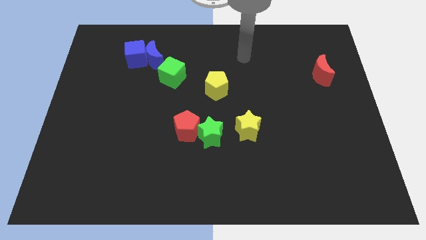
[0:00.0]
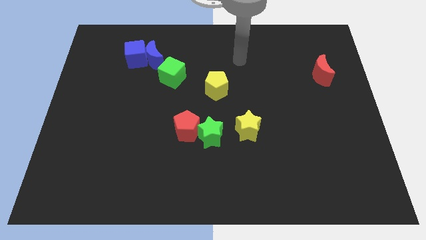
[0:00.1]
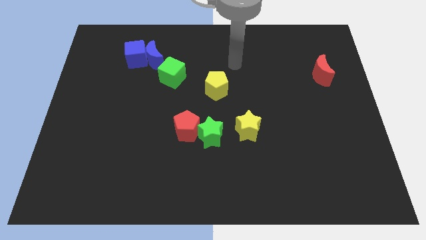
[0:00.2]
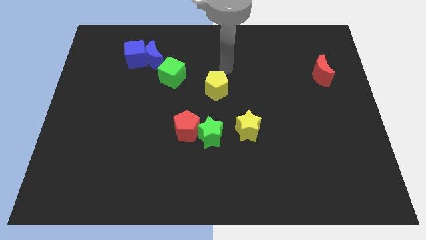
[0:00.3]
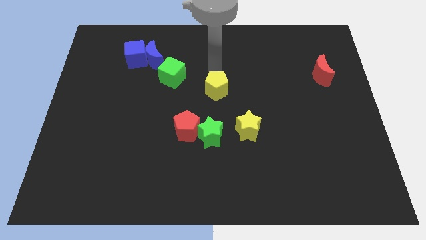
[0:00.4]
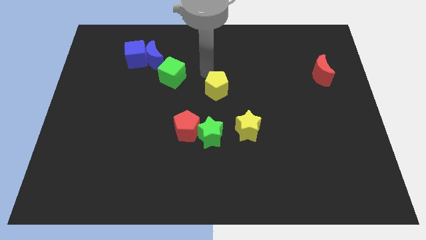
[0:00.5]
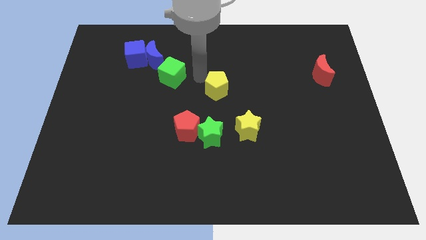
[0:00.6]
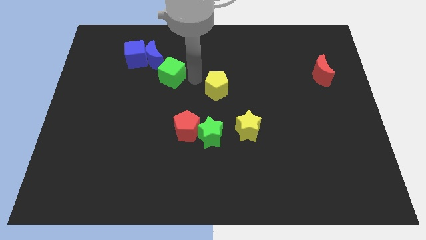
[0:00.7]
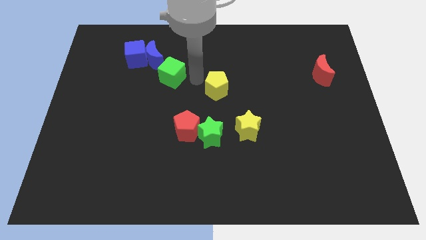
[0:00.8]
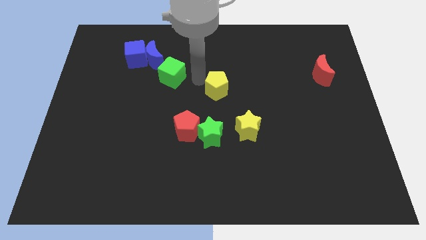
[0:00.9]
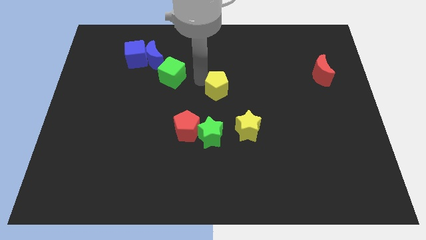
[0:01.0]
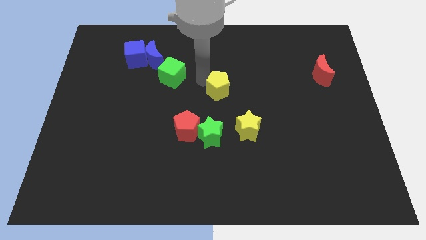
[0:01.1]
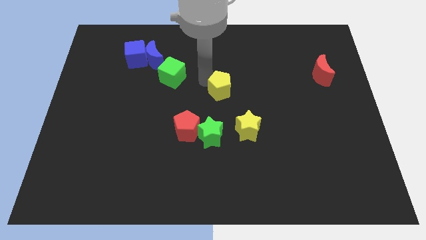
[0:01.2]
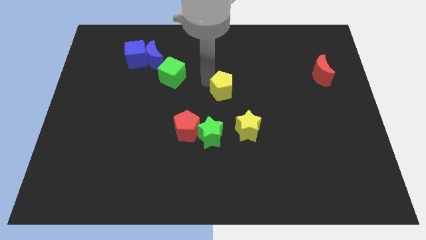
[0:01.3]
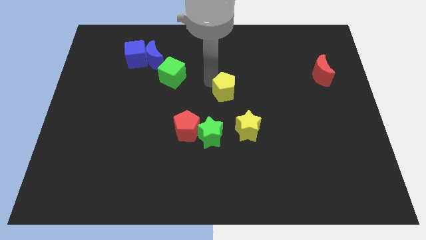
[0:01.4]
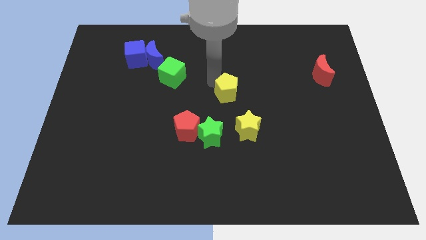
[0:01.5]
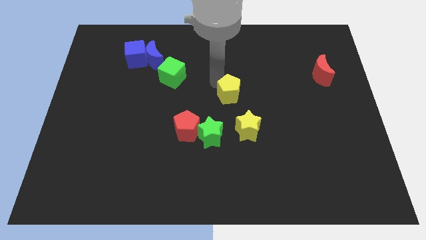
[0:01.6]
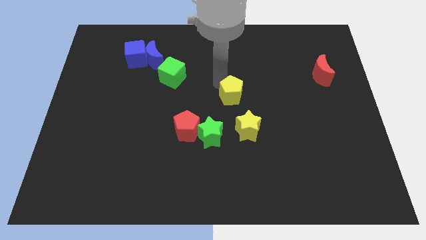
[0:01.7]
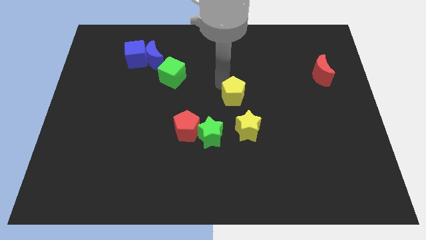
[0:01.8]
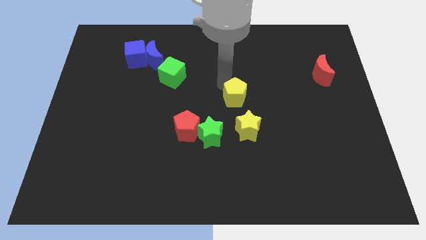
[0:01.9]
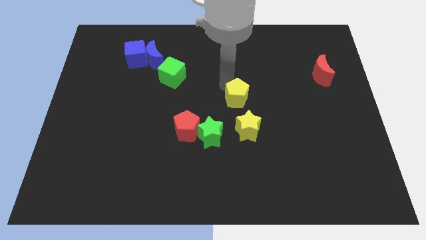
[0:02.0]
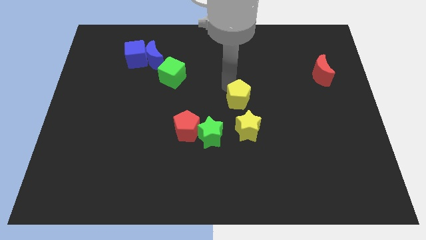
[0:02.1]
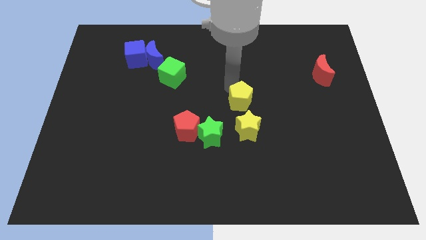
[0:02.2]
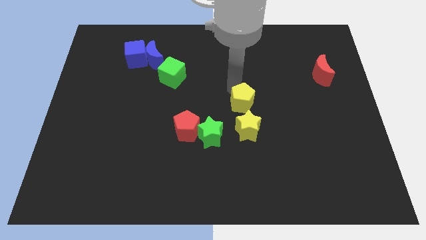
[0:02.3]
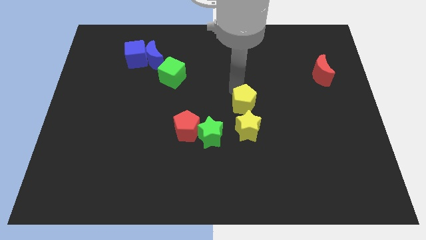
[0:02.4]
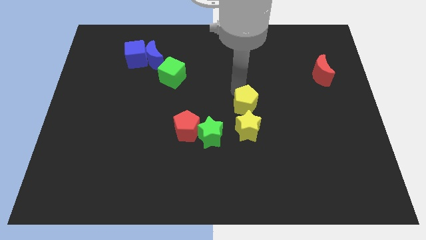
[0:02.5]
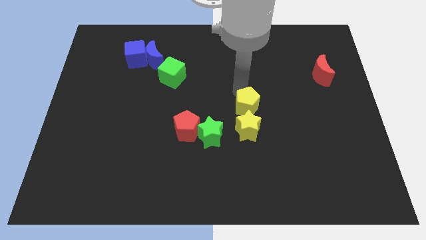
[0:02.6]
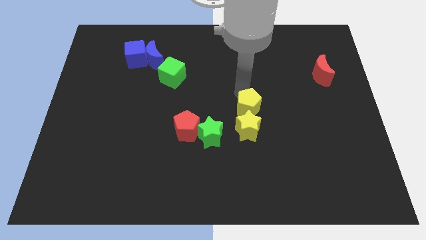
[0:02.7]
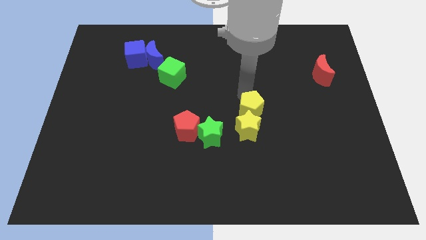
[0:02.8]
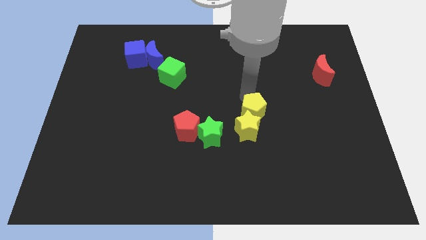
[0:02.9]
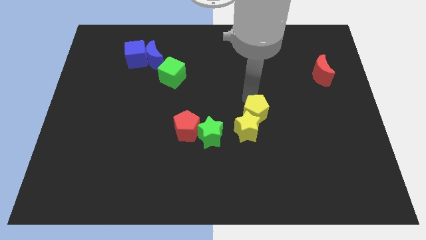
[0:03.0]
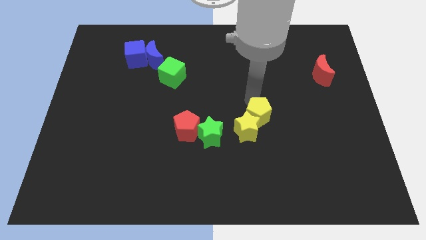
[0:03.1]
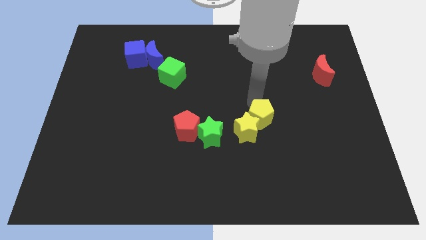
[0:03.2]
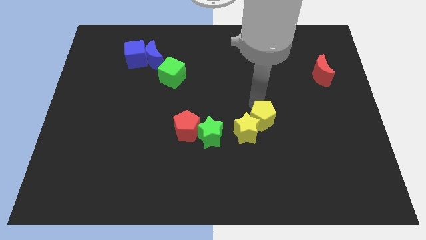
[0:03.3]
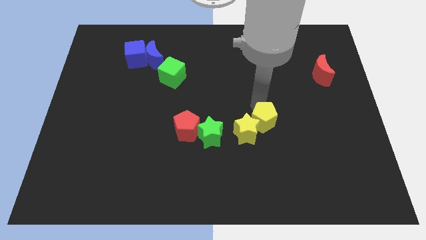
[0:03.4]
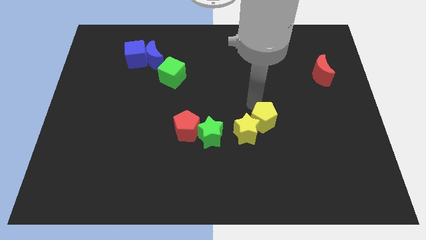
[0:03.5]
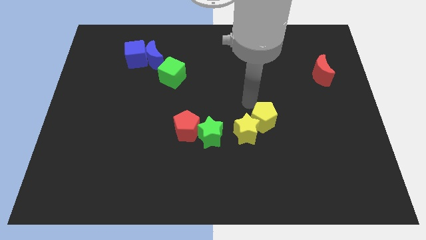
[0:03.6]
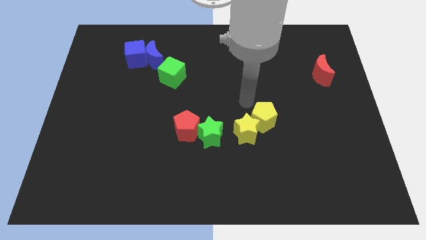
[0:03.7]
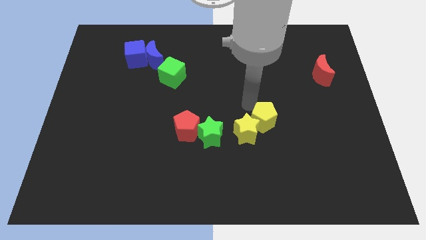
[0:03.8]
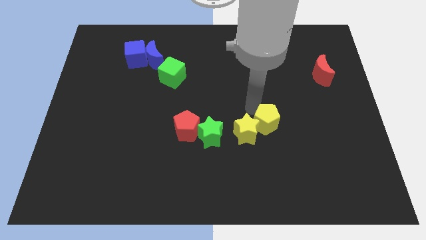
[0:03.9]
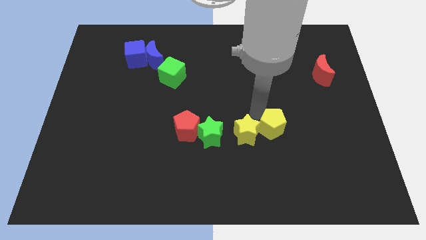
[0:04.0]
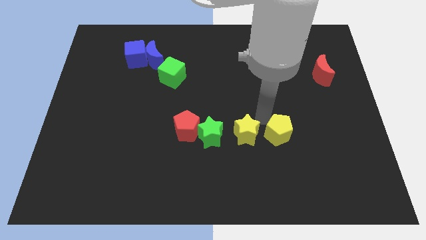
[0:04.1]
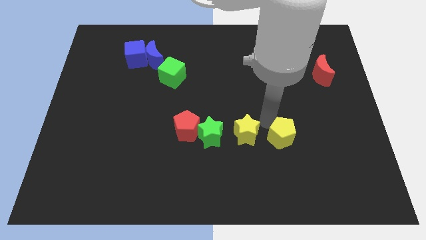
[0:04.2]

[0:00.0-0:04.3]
move the yellow pentagon down and to the right

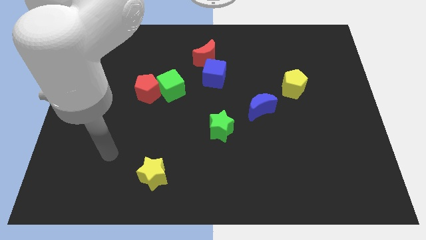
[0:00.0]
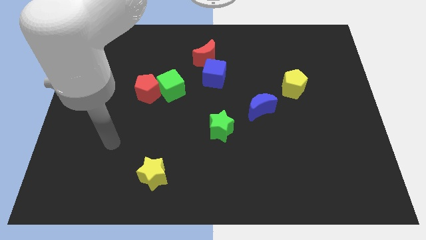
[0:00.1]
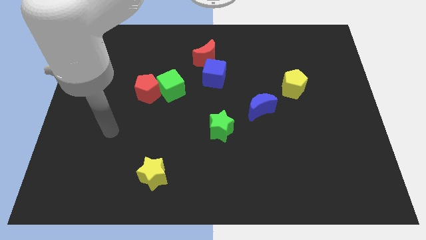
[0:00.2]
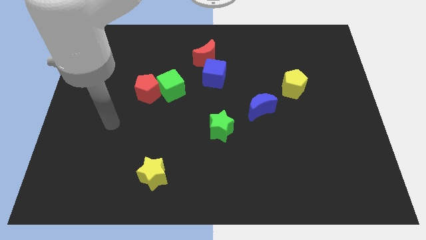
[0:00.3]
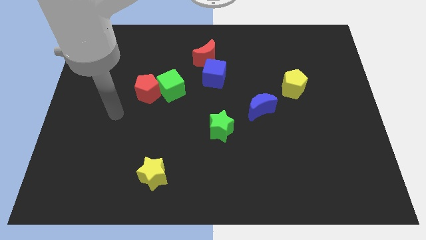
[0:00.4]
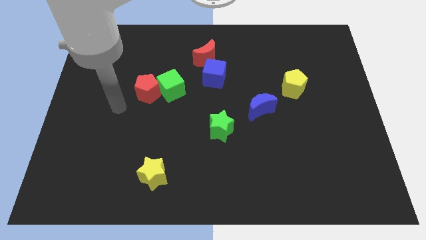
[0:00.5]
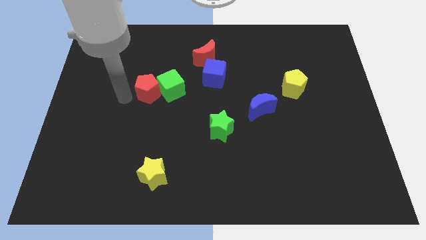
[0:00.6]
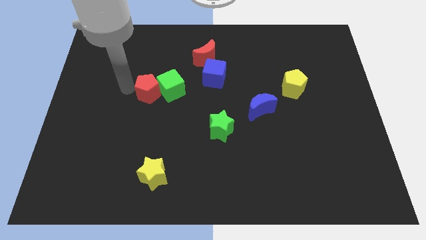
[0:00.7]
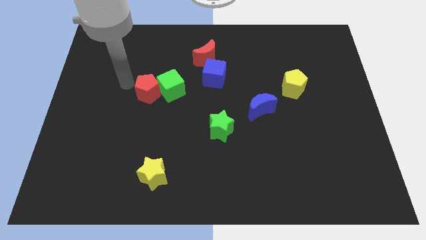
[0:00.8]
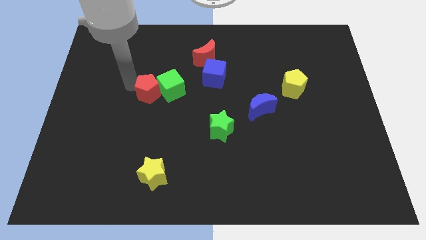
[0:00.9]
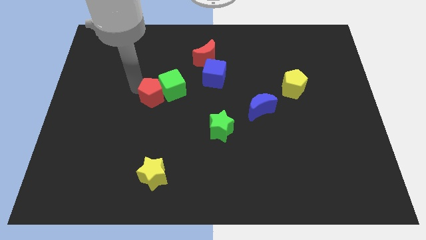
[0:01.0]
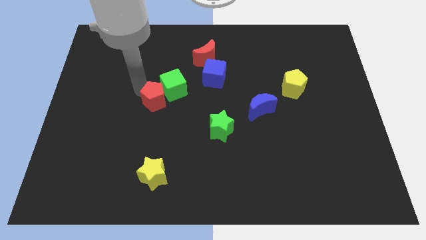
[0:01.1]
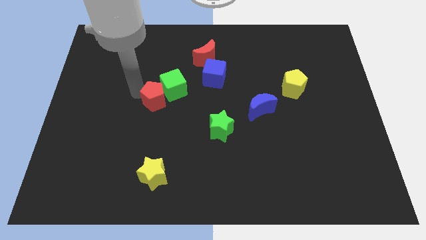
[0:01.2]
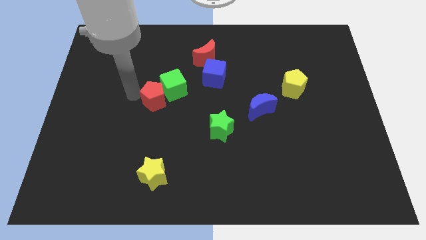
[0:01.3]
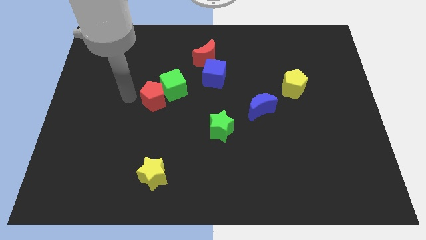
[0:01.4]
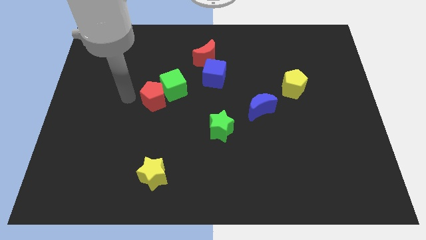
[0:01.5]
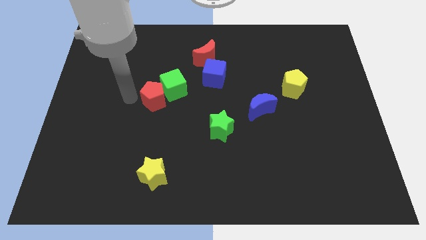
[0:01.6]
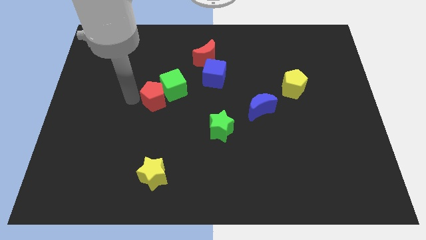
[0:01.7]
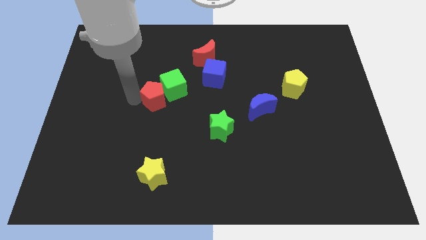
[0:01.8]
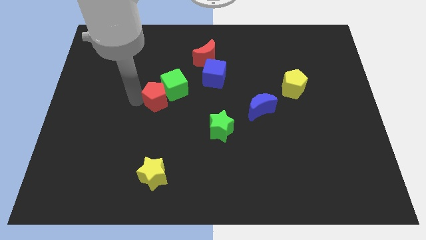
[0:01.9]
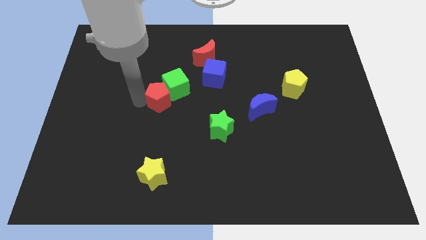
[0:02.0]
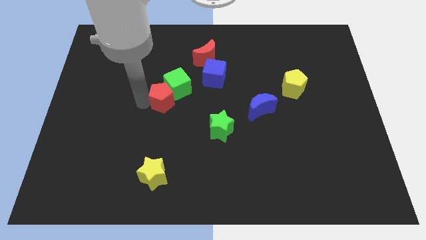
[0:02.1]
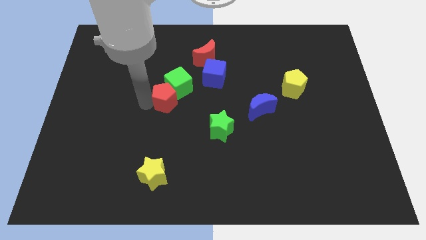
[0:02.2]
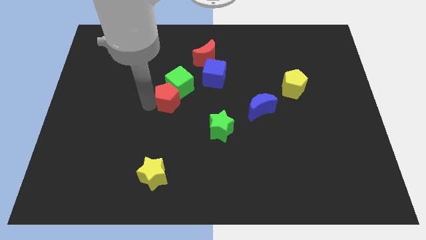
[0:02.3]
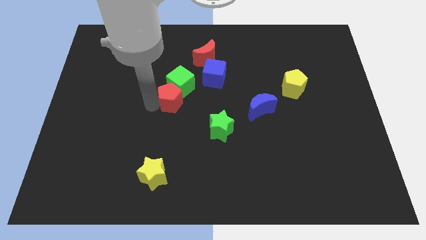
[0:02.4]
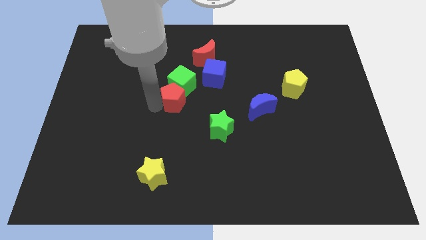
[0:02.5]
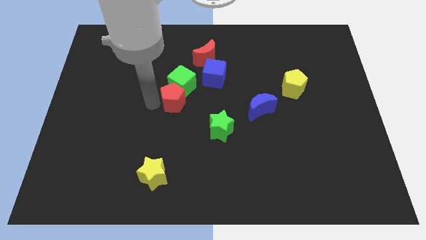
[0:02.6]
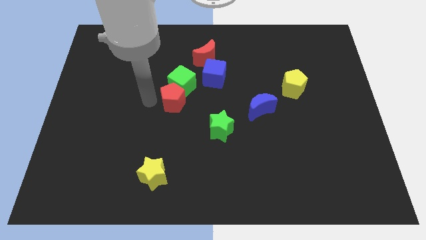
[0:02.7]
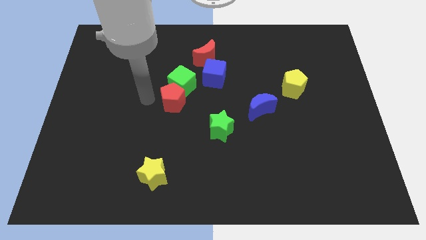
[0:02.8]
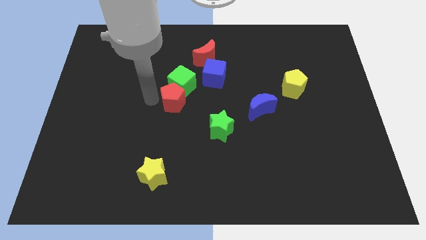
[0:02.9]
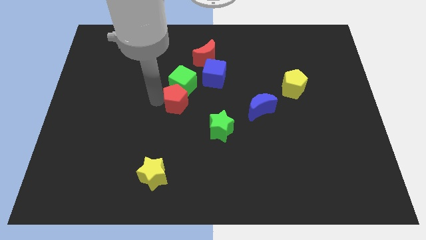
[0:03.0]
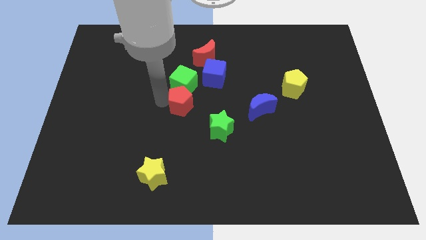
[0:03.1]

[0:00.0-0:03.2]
move the red pentagon a little bit to the right

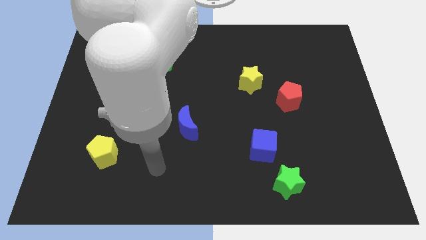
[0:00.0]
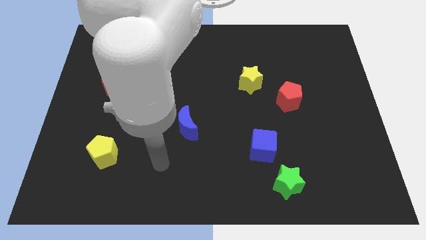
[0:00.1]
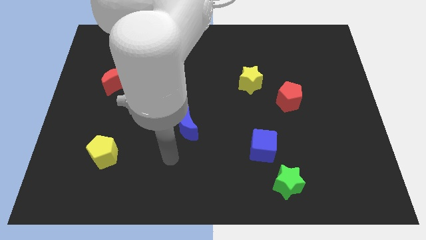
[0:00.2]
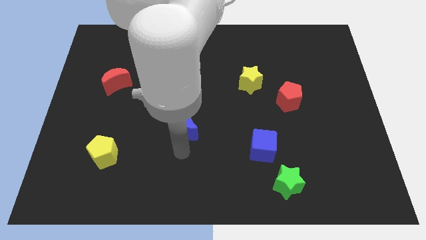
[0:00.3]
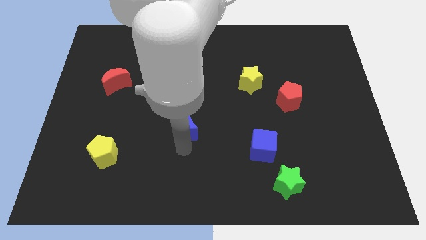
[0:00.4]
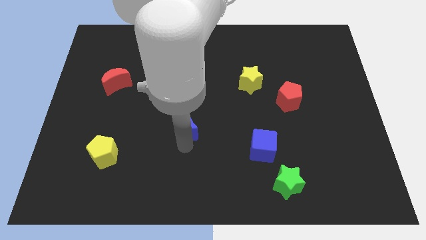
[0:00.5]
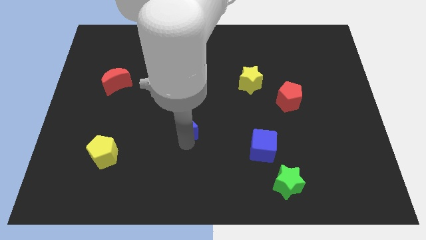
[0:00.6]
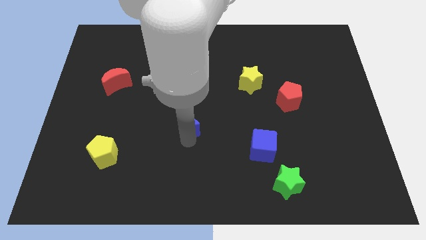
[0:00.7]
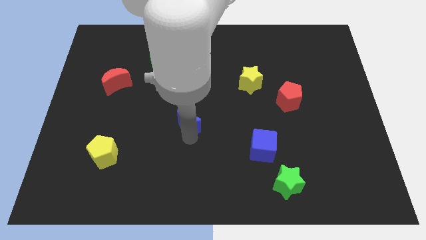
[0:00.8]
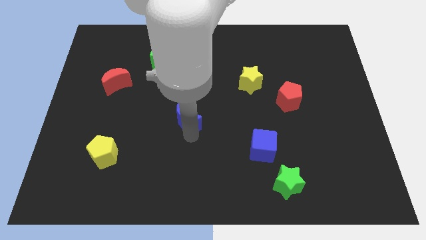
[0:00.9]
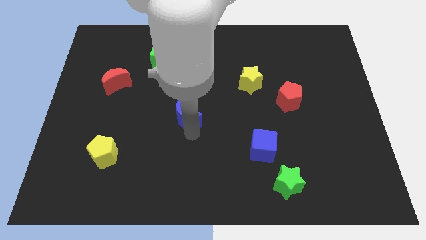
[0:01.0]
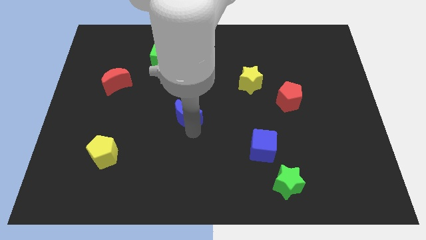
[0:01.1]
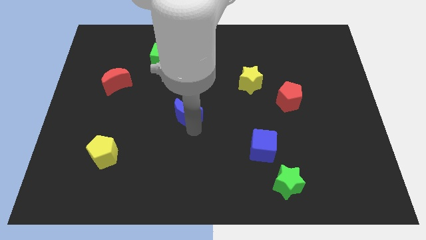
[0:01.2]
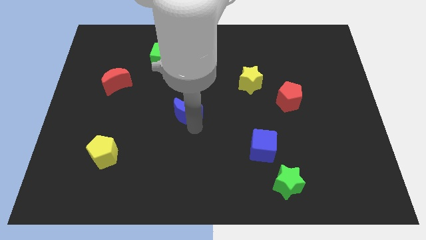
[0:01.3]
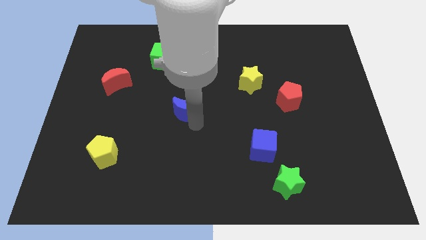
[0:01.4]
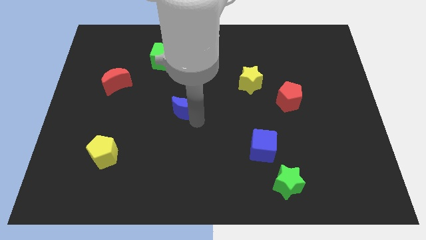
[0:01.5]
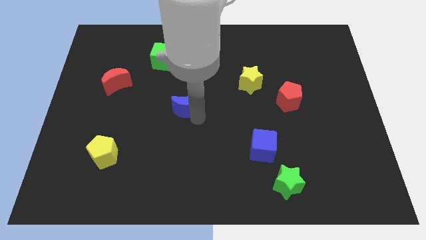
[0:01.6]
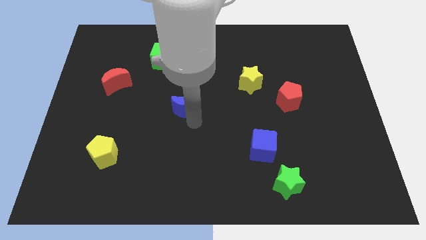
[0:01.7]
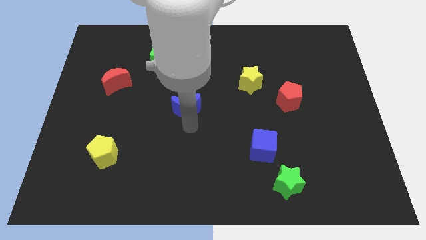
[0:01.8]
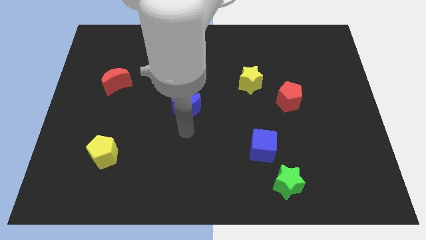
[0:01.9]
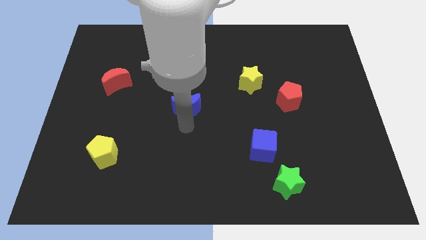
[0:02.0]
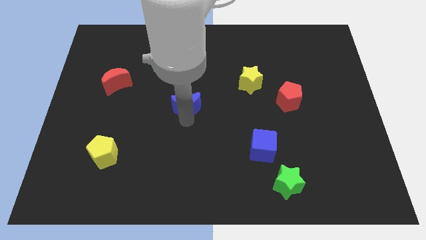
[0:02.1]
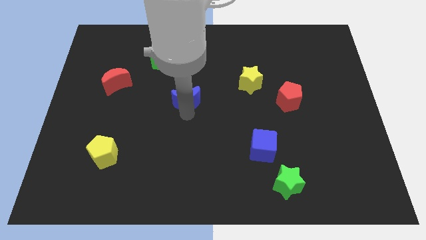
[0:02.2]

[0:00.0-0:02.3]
move the blue moon upwards slightly
